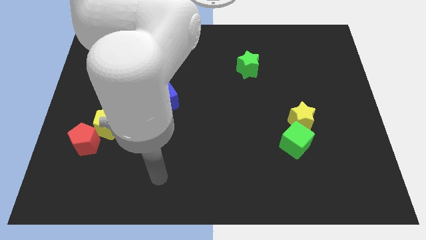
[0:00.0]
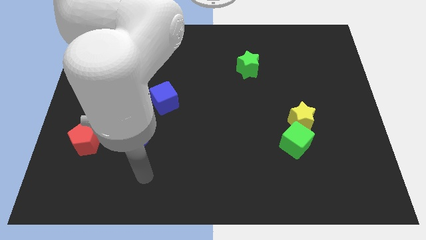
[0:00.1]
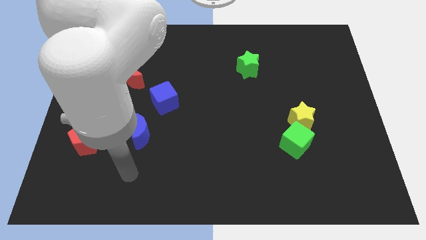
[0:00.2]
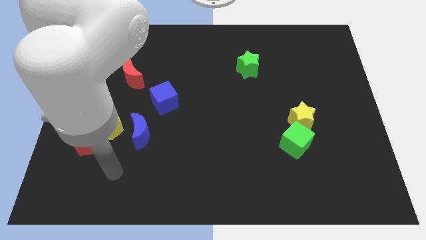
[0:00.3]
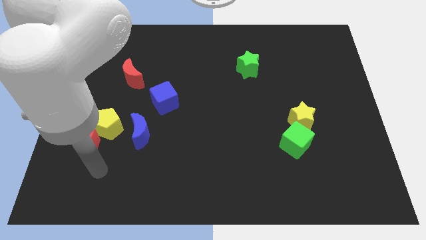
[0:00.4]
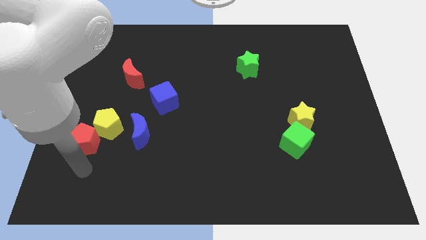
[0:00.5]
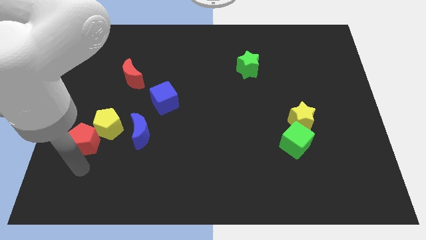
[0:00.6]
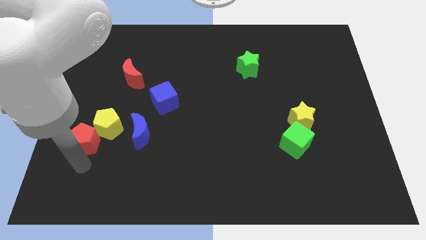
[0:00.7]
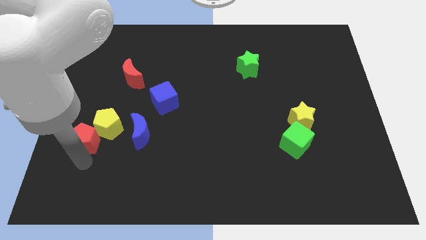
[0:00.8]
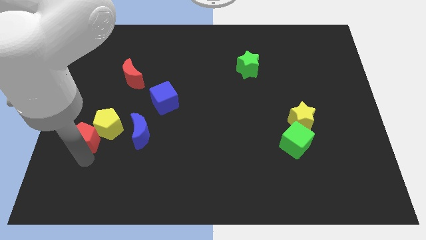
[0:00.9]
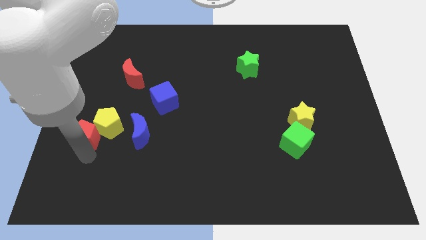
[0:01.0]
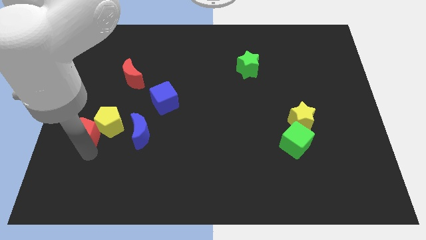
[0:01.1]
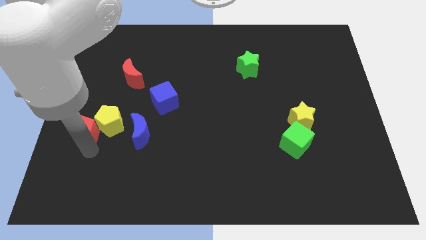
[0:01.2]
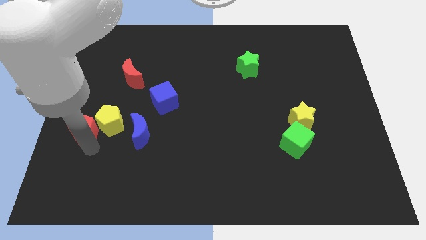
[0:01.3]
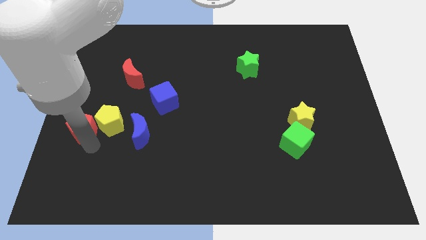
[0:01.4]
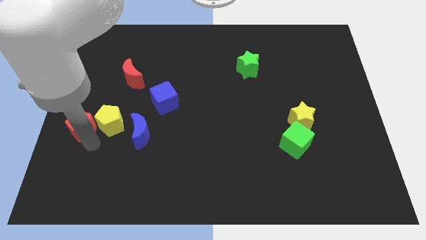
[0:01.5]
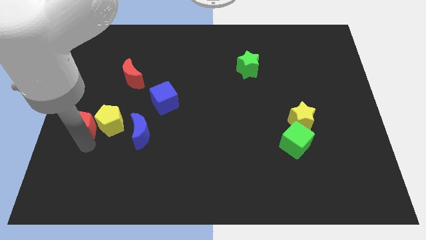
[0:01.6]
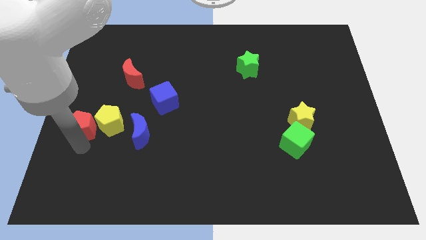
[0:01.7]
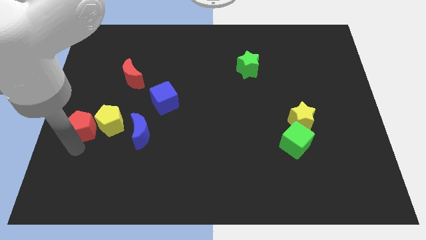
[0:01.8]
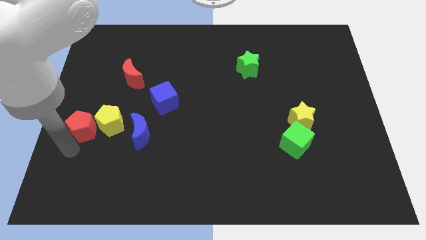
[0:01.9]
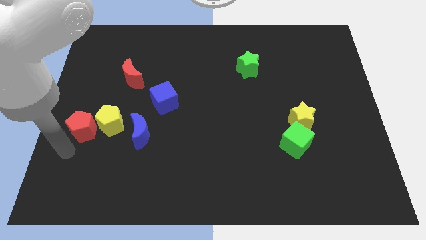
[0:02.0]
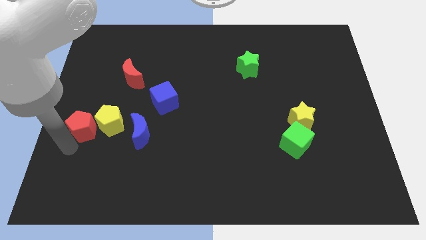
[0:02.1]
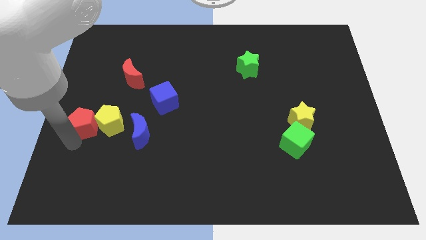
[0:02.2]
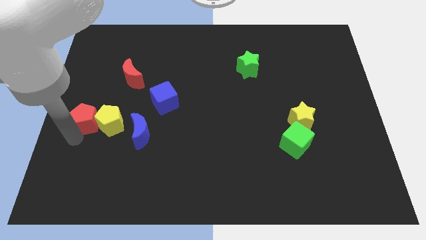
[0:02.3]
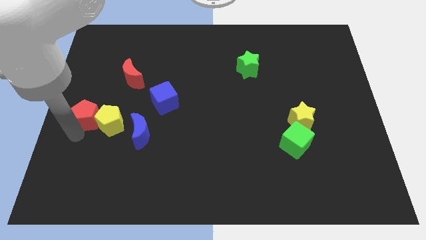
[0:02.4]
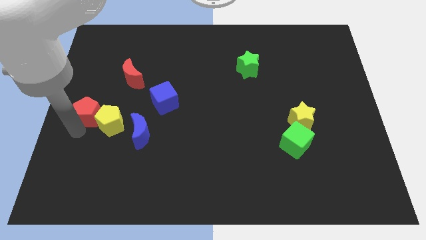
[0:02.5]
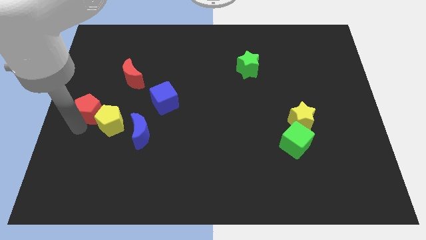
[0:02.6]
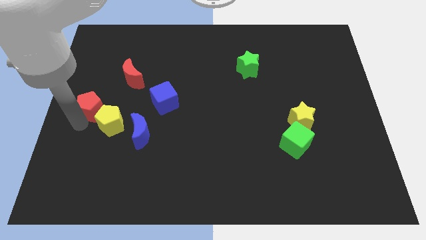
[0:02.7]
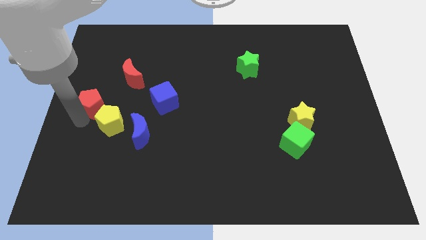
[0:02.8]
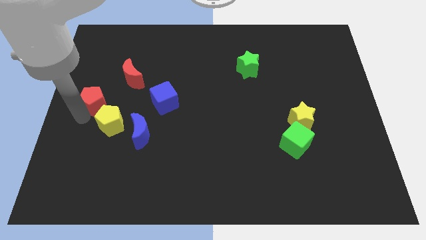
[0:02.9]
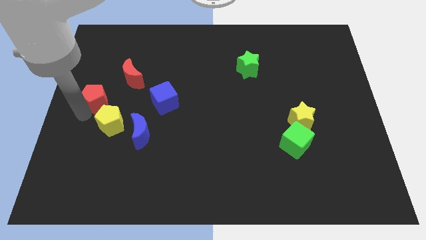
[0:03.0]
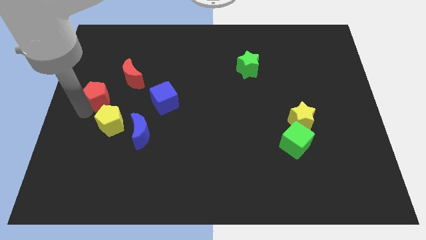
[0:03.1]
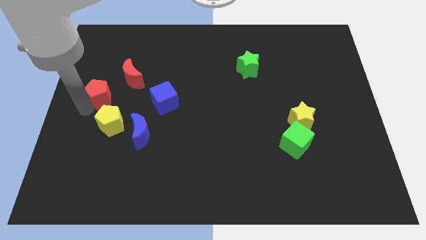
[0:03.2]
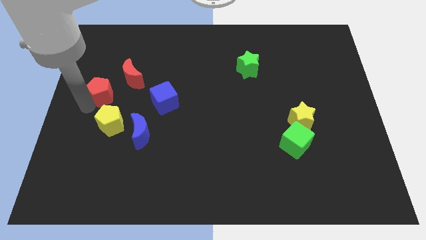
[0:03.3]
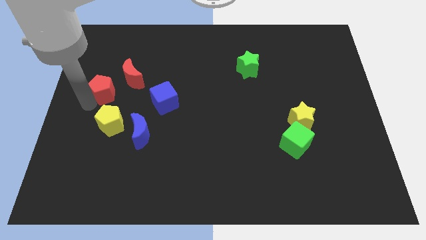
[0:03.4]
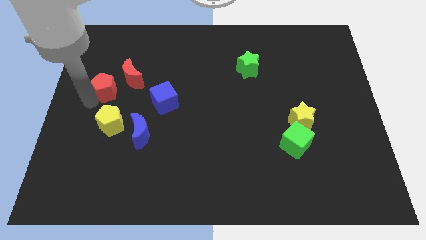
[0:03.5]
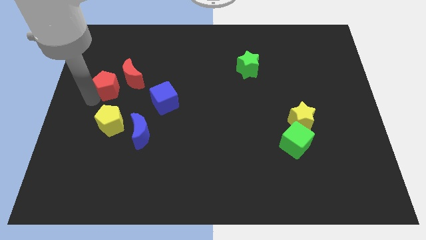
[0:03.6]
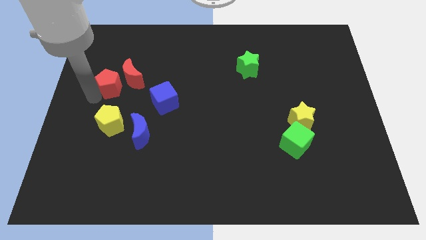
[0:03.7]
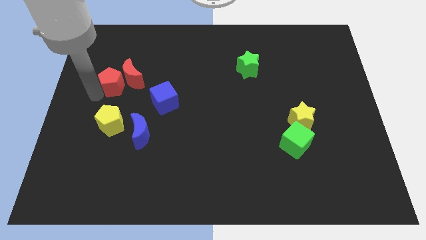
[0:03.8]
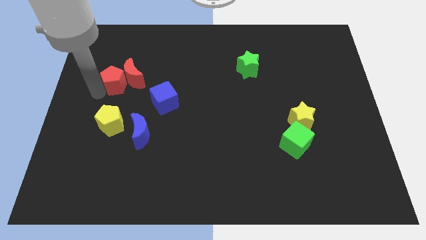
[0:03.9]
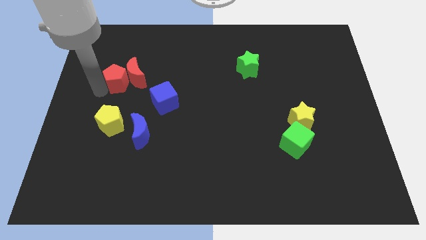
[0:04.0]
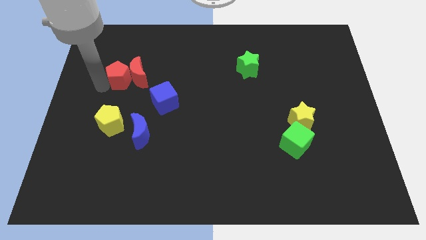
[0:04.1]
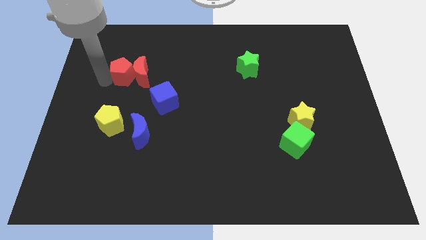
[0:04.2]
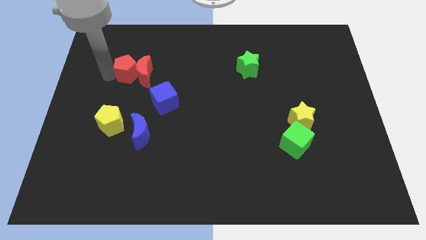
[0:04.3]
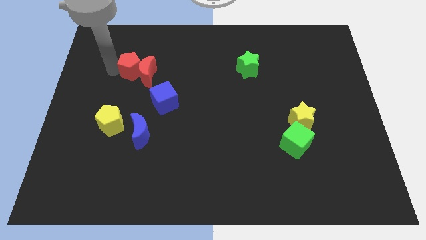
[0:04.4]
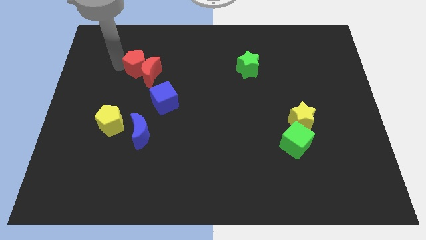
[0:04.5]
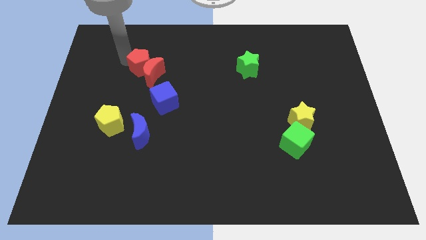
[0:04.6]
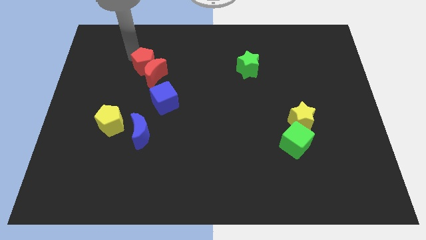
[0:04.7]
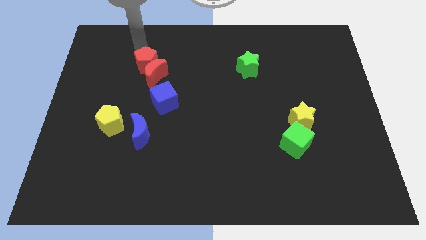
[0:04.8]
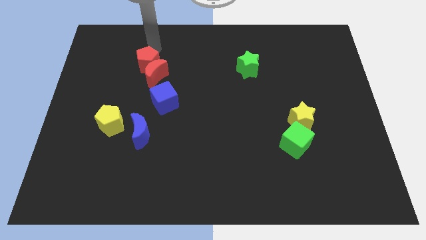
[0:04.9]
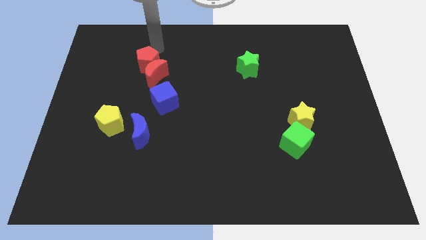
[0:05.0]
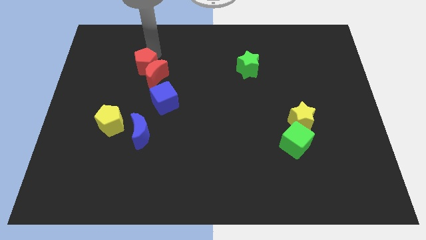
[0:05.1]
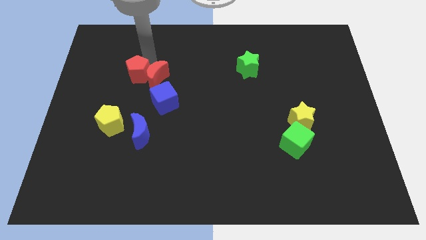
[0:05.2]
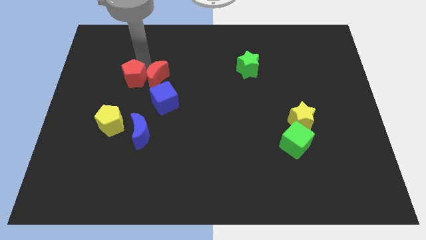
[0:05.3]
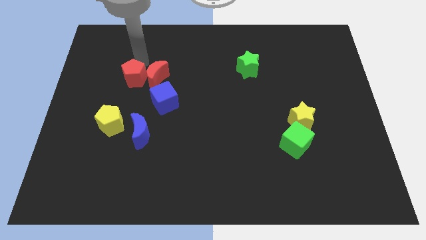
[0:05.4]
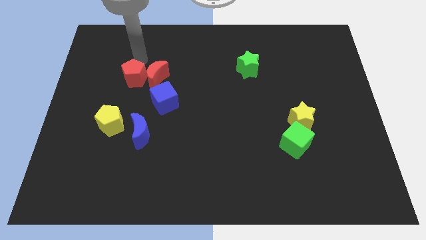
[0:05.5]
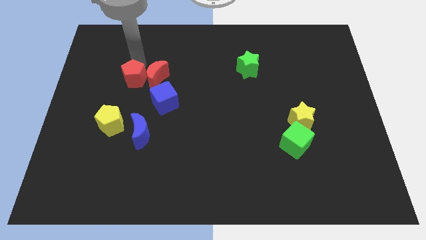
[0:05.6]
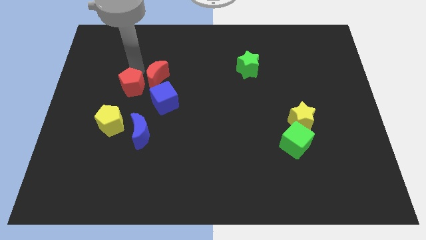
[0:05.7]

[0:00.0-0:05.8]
move the red pentagon to the top side of the blue moon
